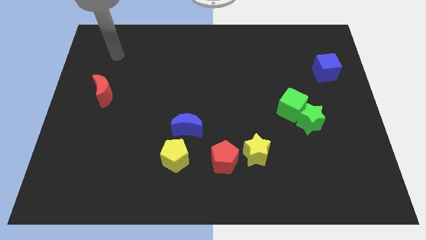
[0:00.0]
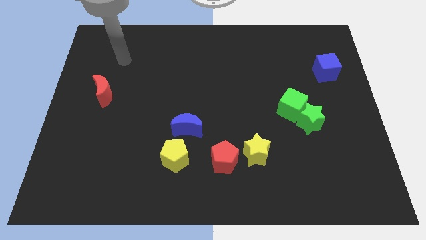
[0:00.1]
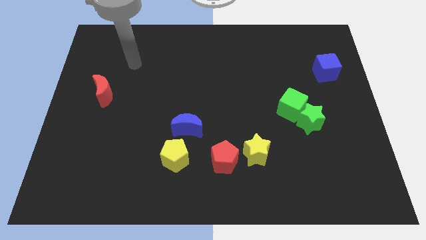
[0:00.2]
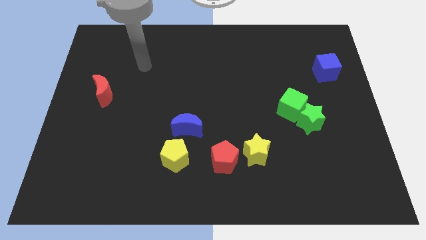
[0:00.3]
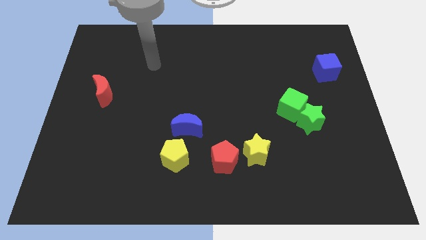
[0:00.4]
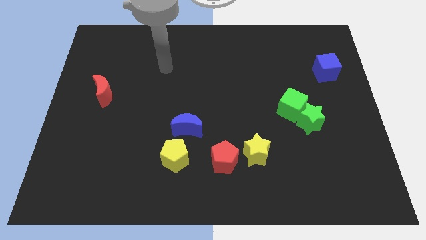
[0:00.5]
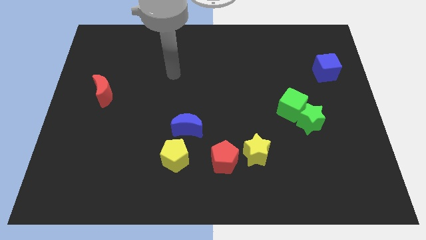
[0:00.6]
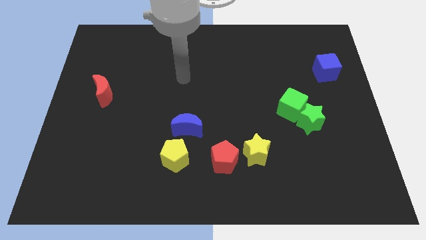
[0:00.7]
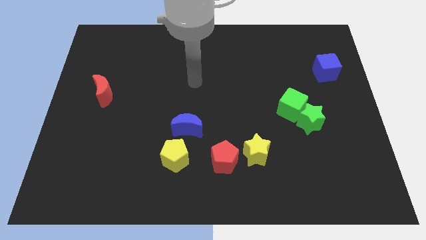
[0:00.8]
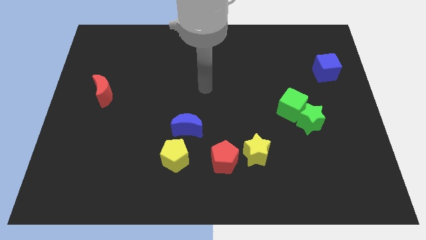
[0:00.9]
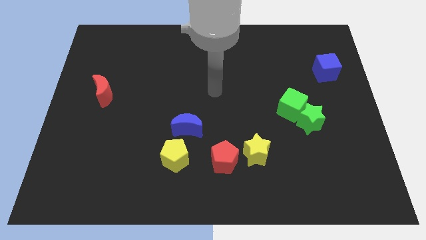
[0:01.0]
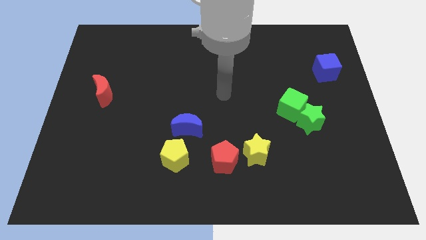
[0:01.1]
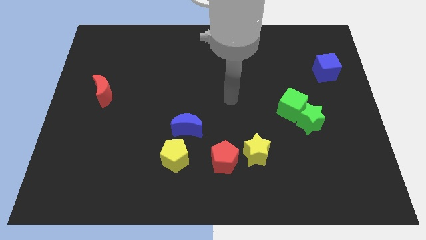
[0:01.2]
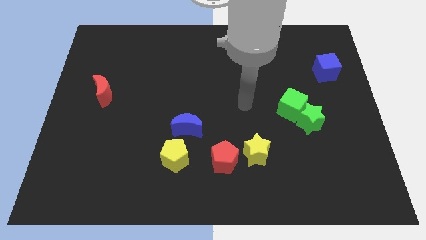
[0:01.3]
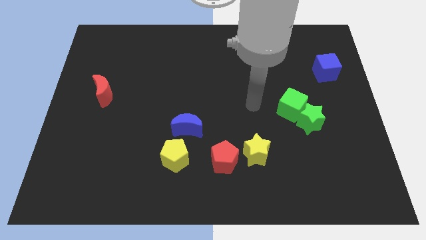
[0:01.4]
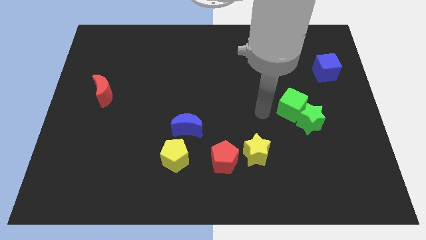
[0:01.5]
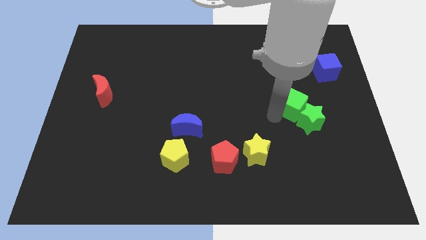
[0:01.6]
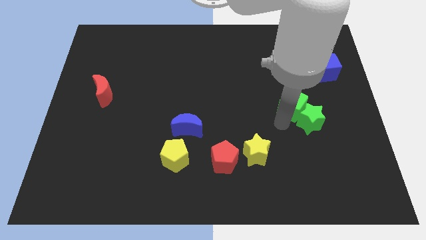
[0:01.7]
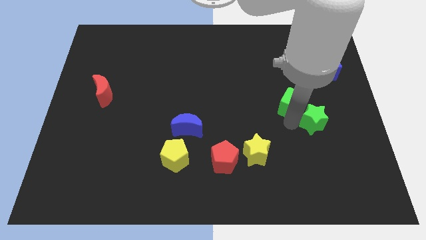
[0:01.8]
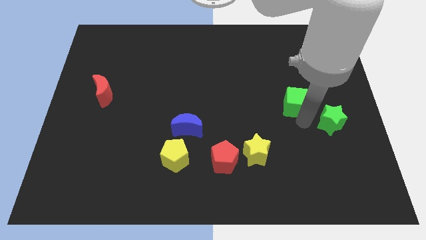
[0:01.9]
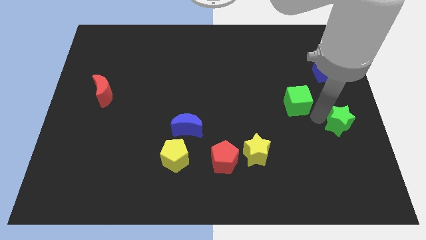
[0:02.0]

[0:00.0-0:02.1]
pull the green cube apart from the green star

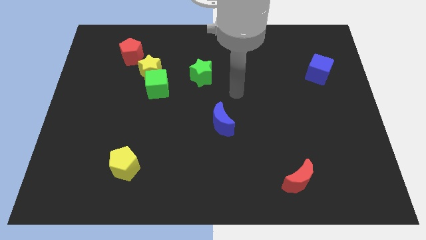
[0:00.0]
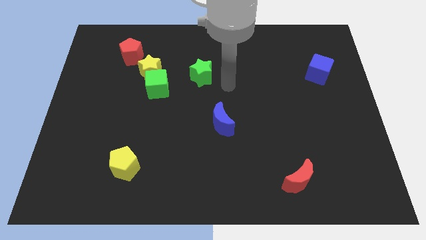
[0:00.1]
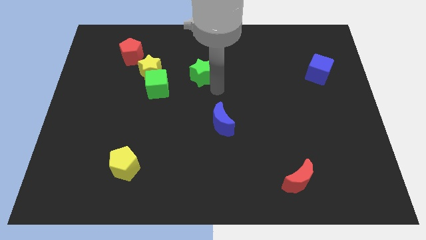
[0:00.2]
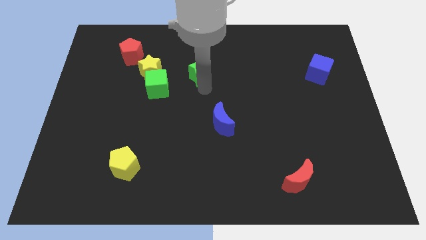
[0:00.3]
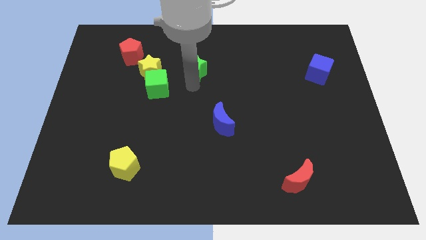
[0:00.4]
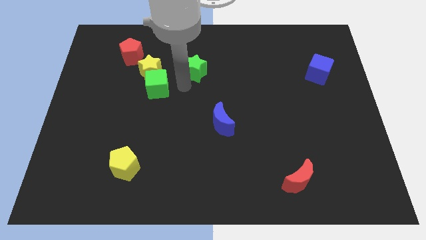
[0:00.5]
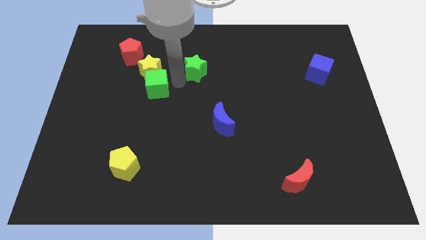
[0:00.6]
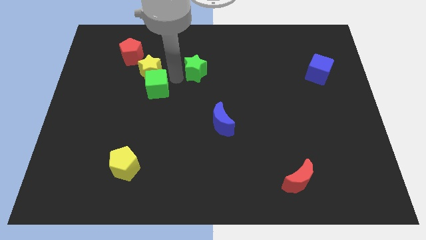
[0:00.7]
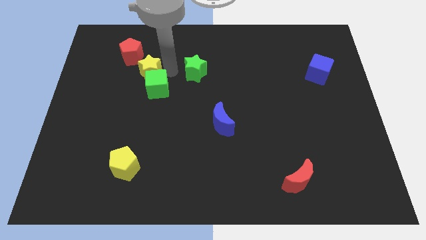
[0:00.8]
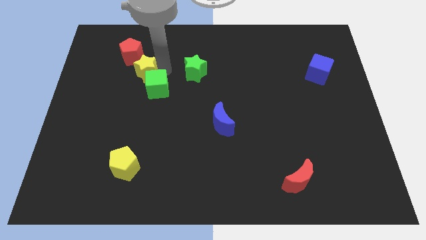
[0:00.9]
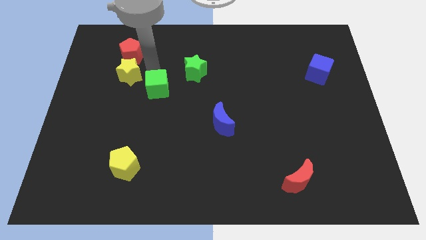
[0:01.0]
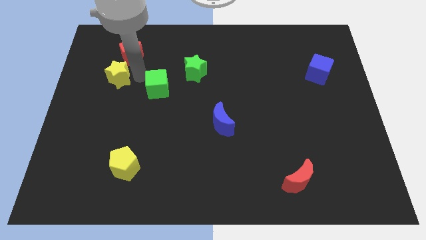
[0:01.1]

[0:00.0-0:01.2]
pull the green cube apart from the yellow star

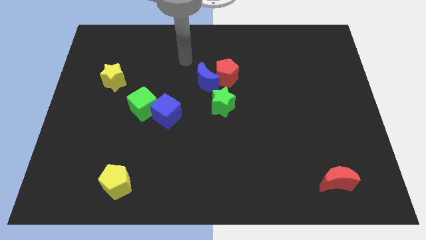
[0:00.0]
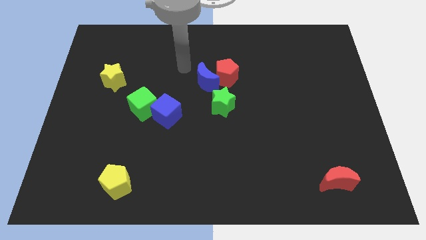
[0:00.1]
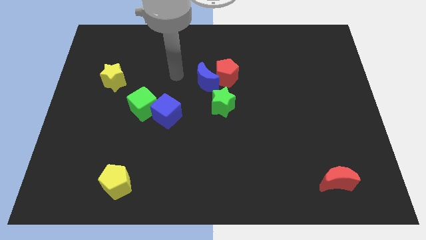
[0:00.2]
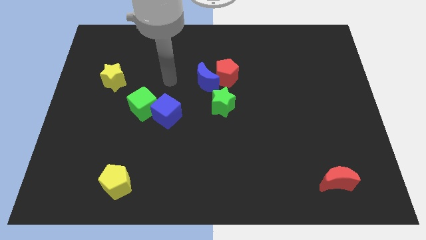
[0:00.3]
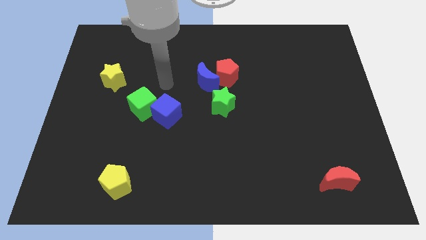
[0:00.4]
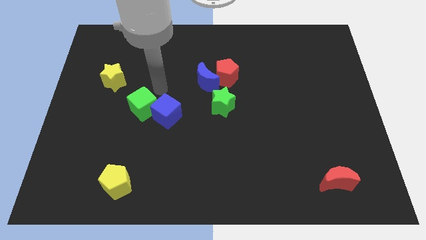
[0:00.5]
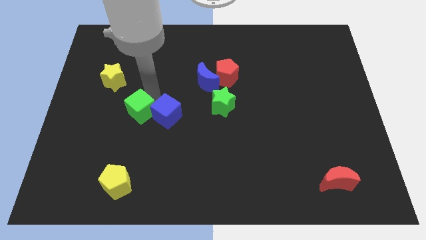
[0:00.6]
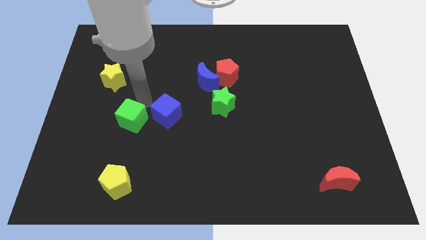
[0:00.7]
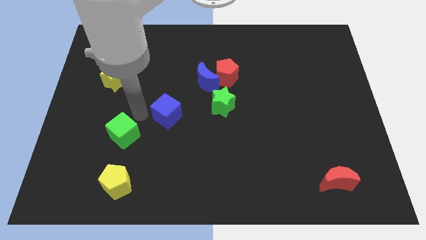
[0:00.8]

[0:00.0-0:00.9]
pull the blue cube apart from the green cube

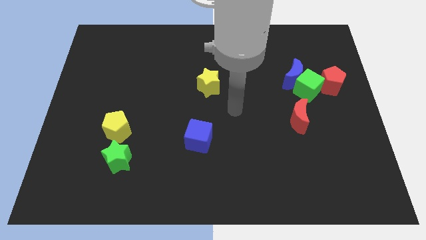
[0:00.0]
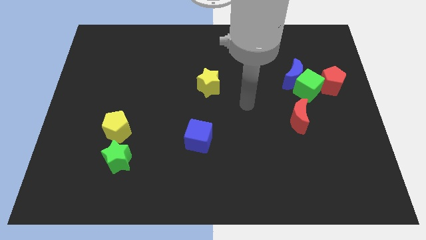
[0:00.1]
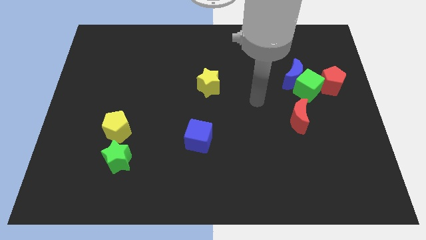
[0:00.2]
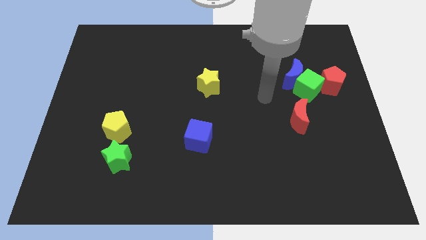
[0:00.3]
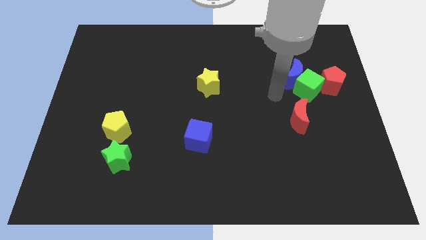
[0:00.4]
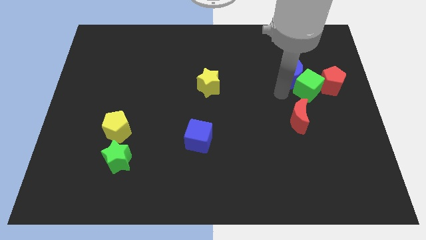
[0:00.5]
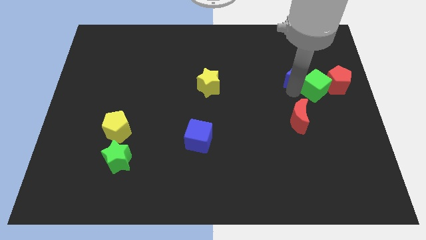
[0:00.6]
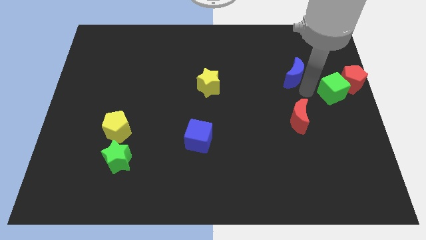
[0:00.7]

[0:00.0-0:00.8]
separate the blue moon from the green cube and red pentagon

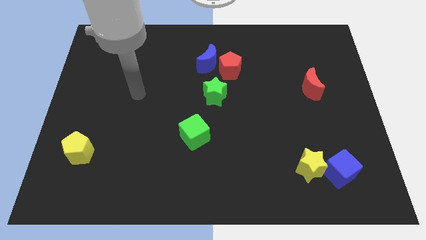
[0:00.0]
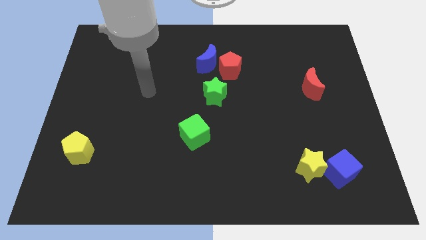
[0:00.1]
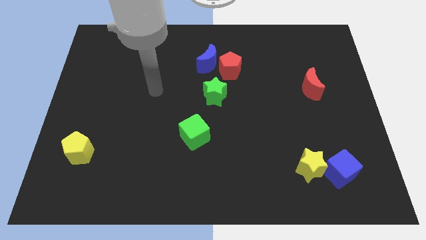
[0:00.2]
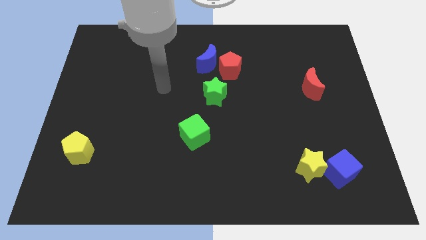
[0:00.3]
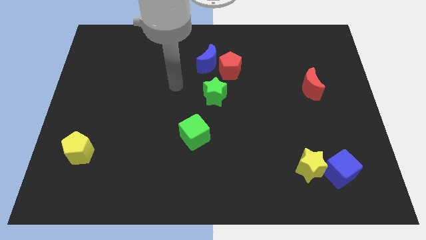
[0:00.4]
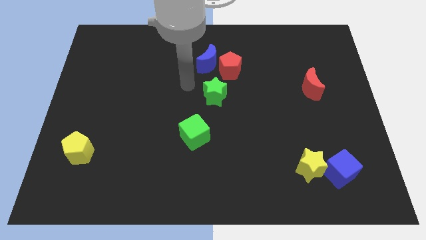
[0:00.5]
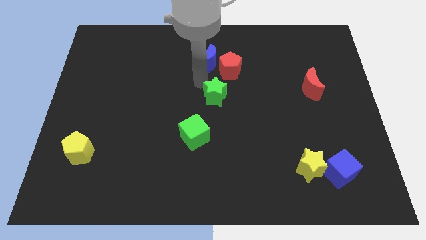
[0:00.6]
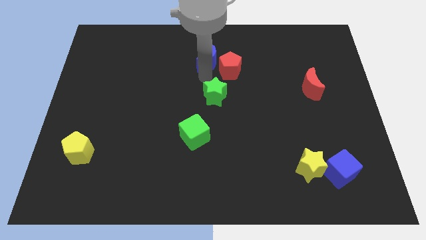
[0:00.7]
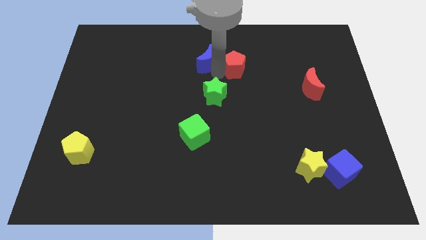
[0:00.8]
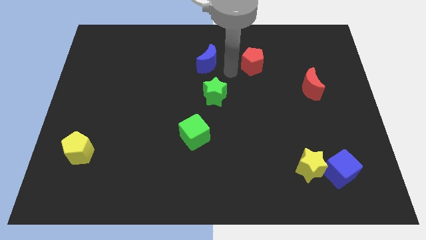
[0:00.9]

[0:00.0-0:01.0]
separate the blue moon from the red pentagon

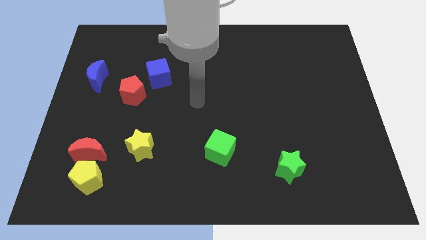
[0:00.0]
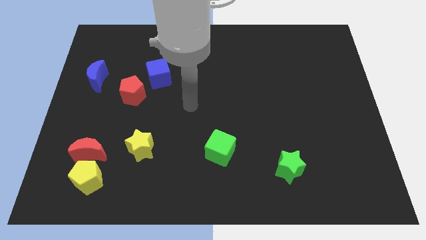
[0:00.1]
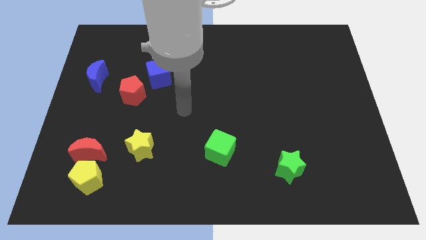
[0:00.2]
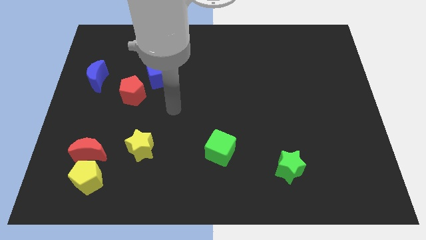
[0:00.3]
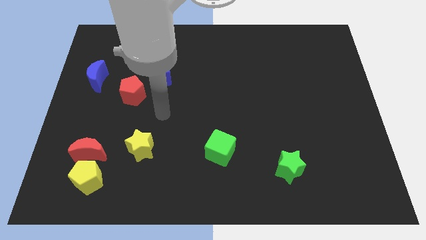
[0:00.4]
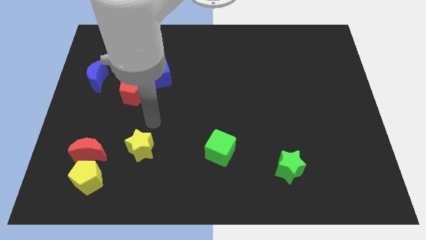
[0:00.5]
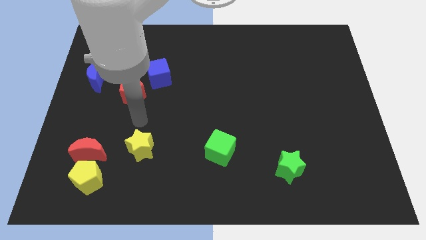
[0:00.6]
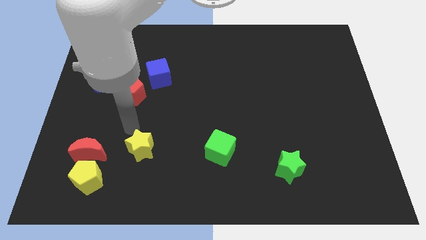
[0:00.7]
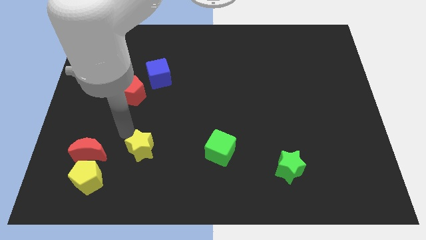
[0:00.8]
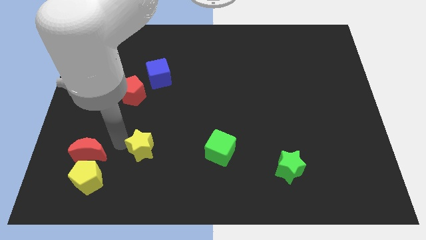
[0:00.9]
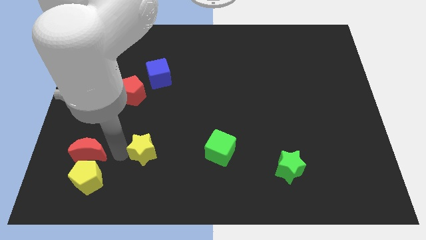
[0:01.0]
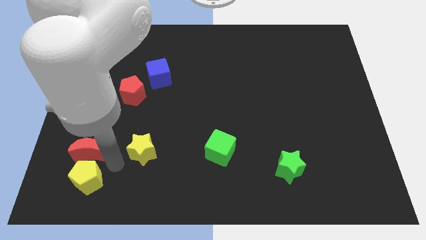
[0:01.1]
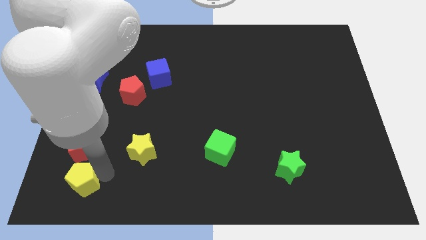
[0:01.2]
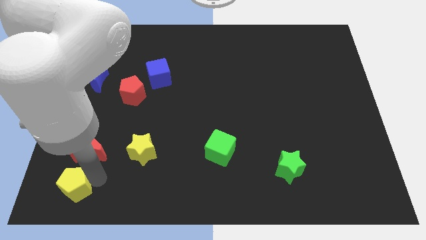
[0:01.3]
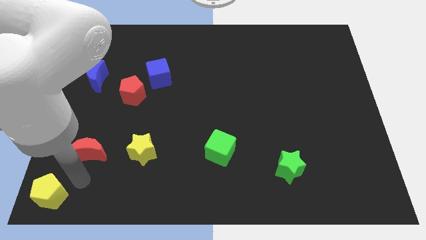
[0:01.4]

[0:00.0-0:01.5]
move the red moon away from the yellow pentagon

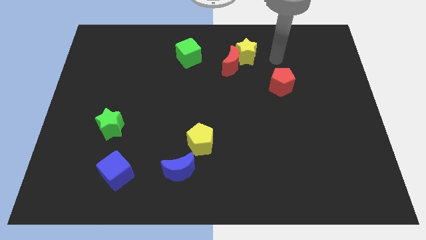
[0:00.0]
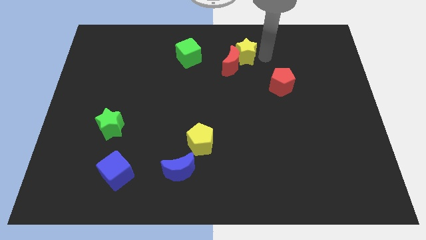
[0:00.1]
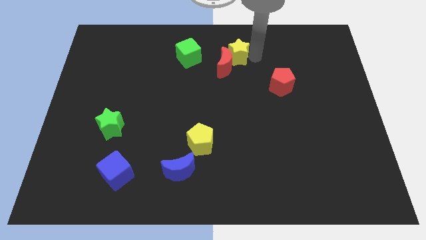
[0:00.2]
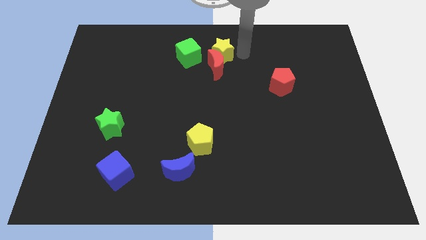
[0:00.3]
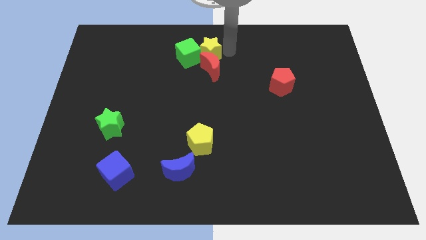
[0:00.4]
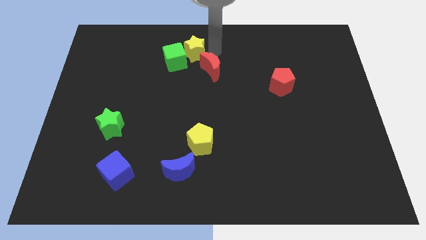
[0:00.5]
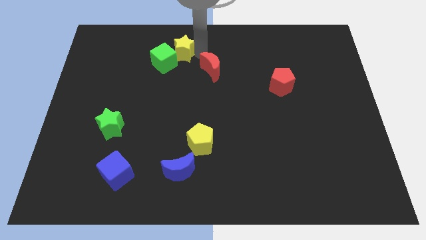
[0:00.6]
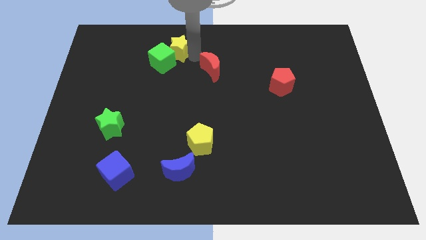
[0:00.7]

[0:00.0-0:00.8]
pull the red moon apart from the yellow star

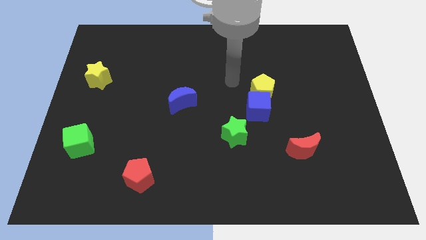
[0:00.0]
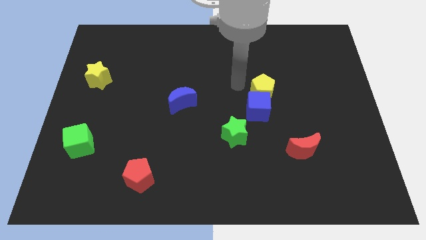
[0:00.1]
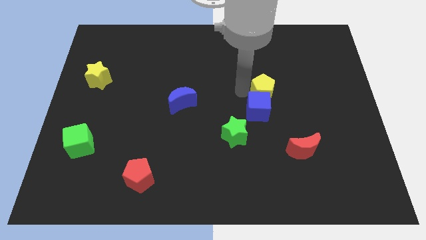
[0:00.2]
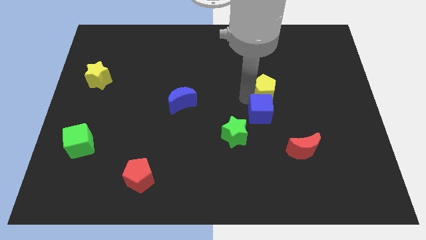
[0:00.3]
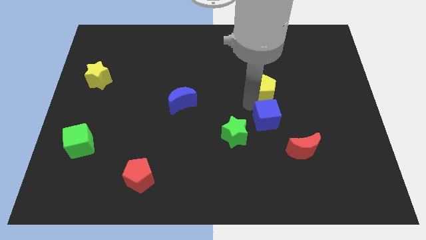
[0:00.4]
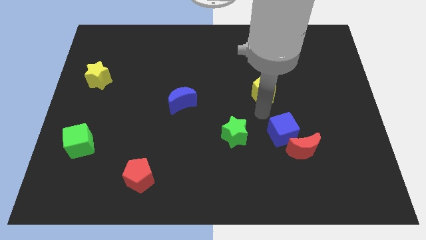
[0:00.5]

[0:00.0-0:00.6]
pull the yellow pentagon apart from the blue cube

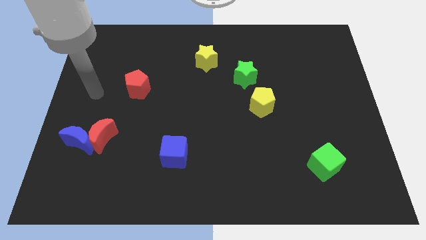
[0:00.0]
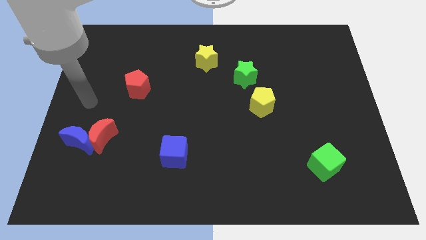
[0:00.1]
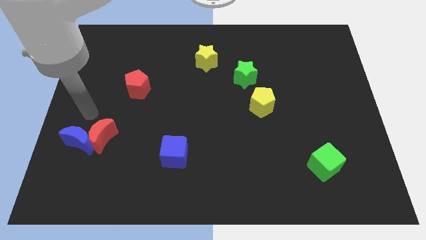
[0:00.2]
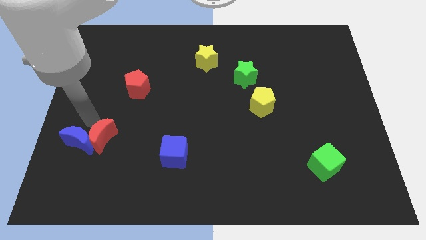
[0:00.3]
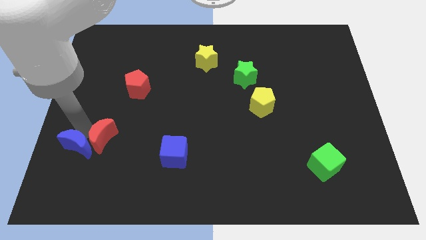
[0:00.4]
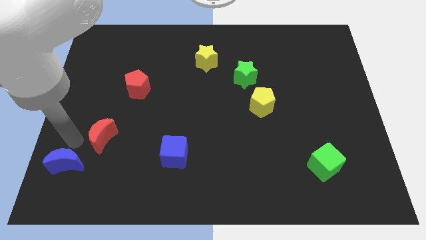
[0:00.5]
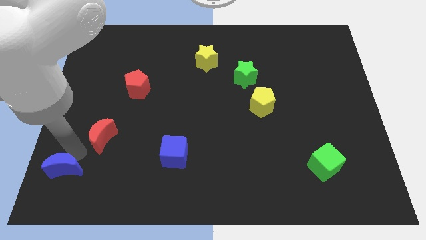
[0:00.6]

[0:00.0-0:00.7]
separate the red moon from the blue moon
